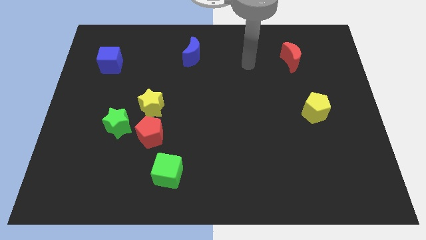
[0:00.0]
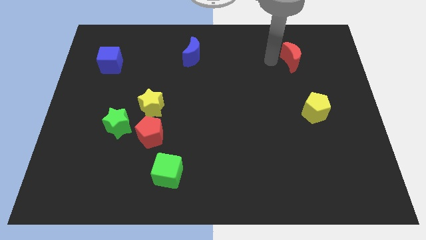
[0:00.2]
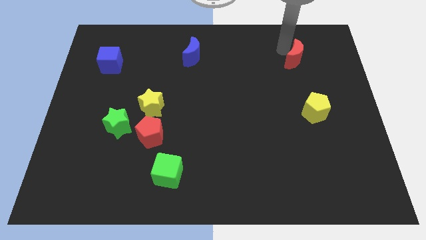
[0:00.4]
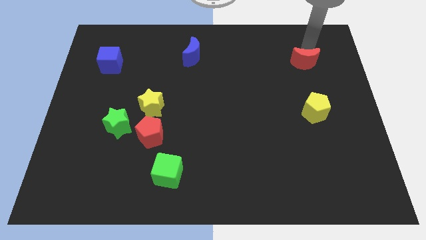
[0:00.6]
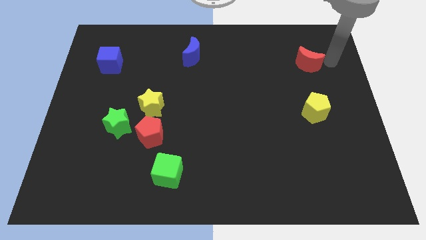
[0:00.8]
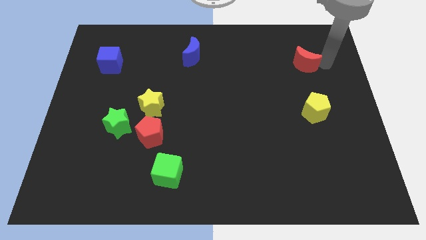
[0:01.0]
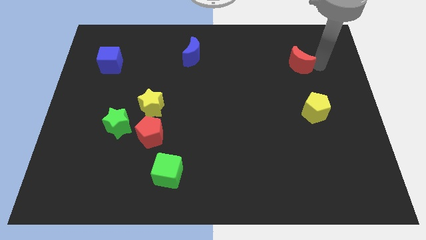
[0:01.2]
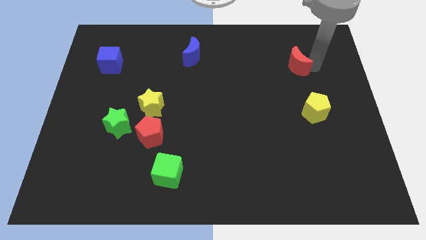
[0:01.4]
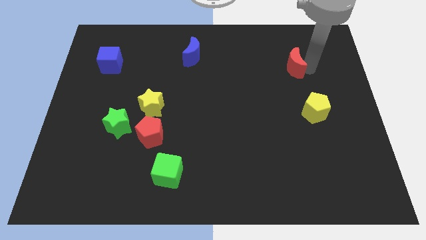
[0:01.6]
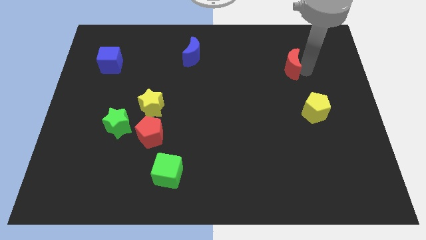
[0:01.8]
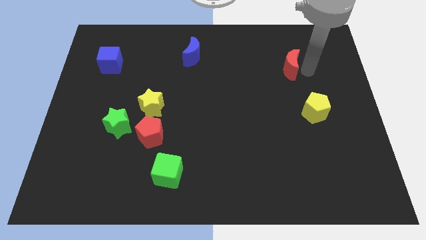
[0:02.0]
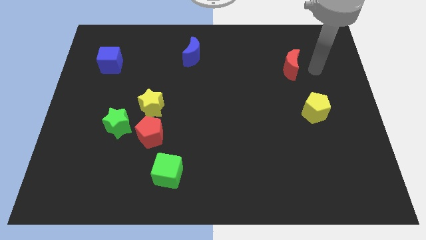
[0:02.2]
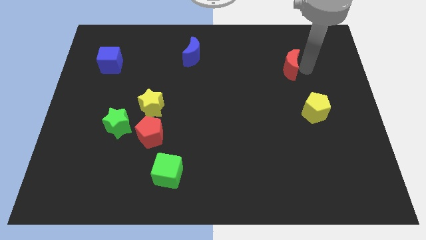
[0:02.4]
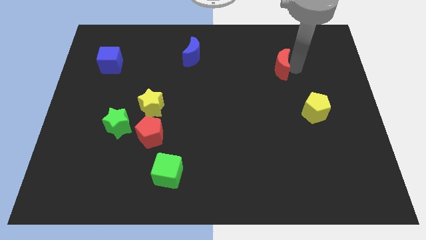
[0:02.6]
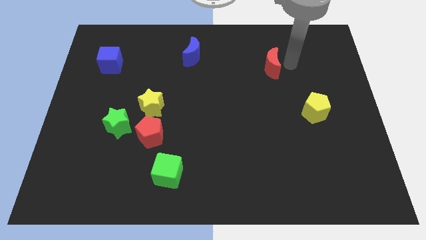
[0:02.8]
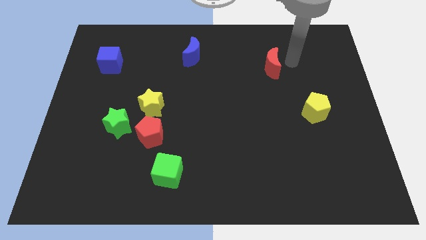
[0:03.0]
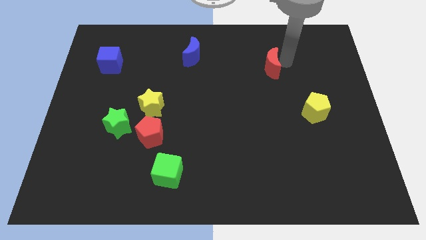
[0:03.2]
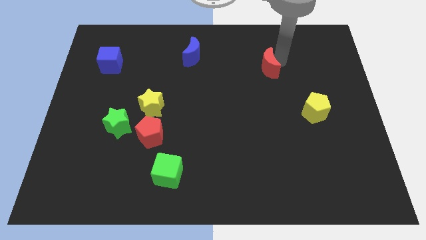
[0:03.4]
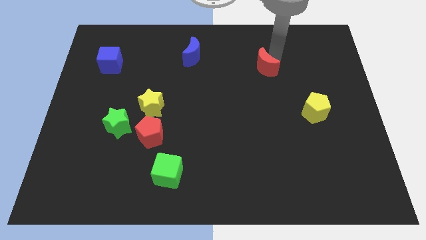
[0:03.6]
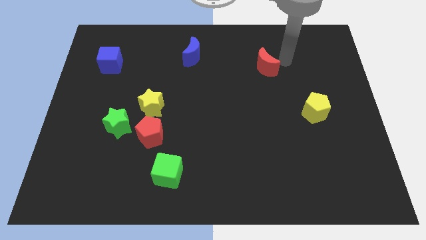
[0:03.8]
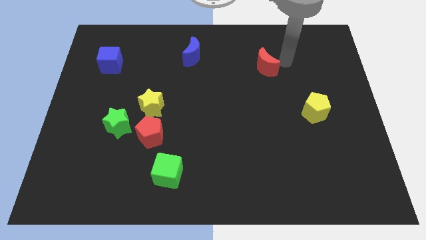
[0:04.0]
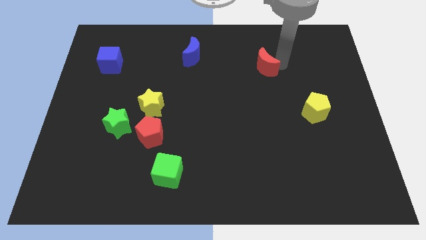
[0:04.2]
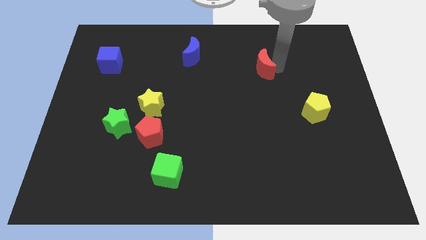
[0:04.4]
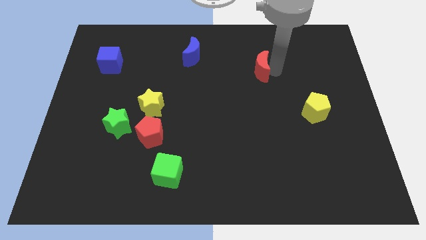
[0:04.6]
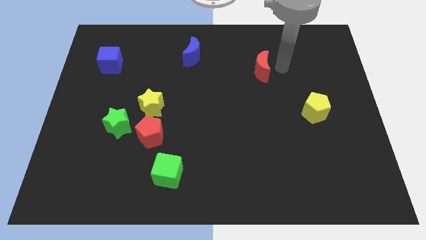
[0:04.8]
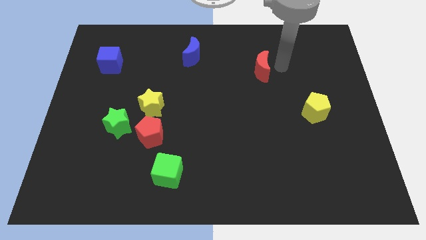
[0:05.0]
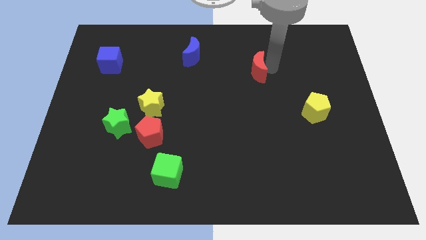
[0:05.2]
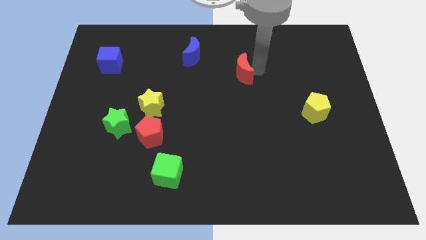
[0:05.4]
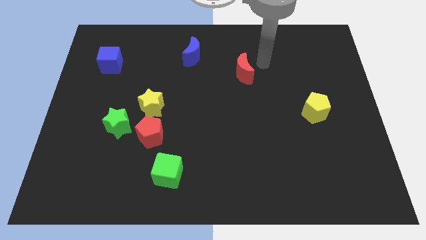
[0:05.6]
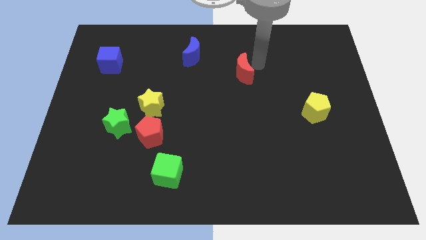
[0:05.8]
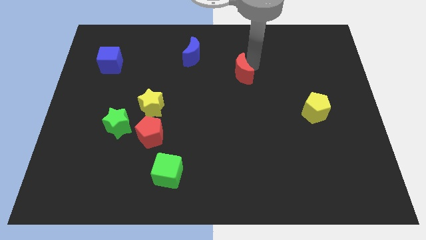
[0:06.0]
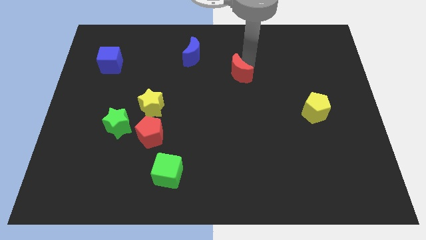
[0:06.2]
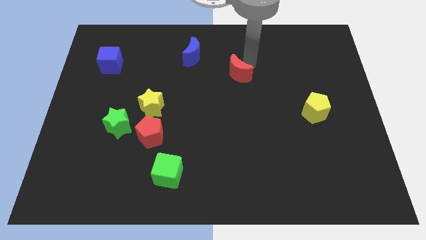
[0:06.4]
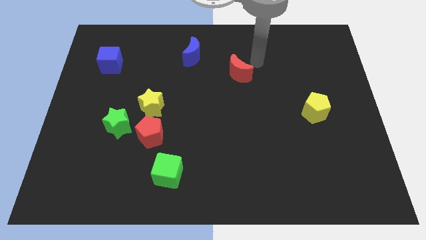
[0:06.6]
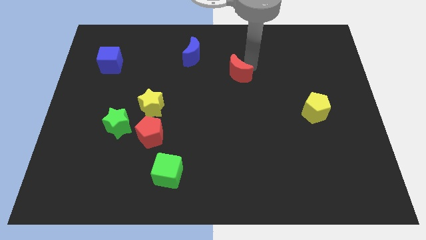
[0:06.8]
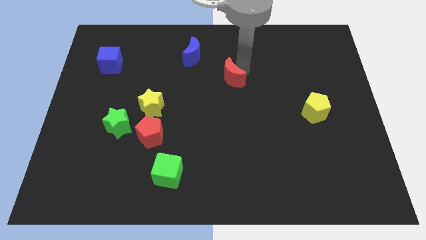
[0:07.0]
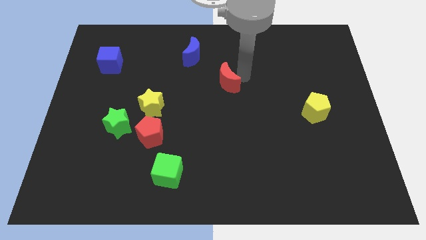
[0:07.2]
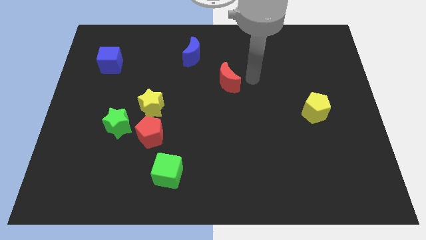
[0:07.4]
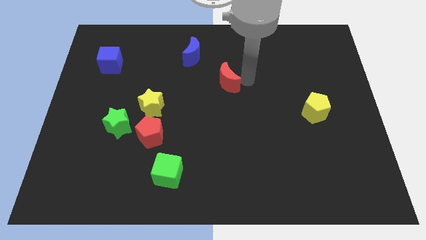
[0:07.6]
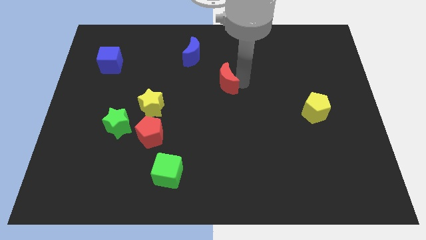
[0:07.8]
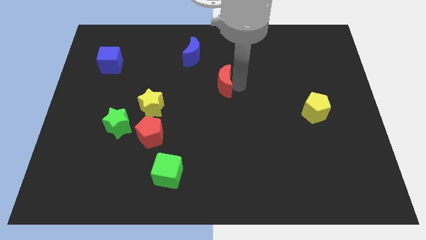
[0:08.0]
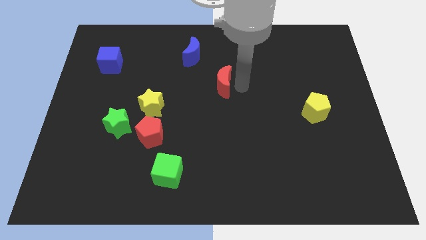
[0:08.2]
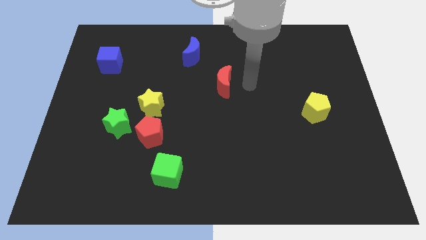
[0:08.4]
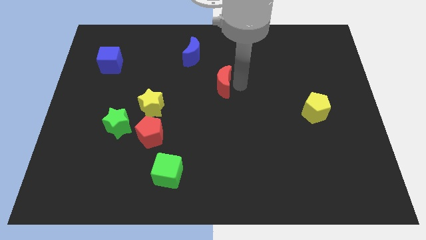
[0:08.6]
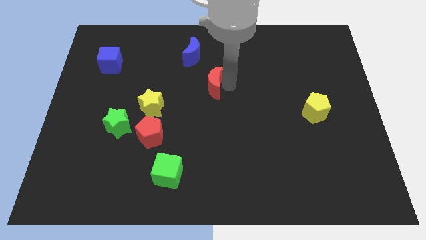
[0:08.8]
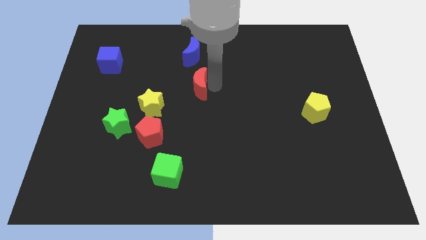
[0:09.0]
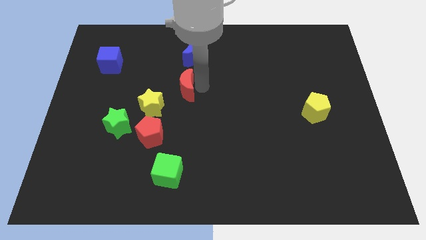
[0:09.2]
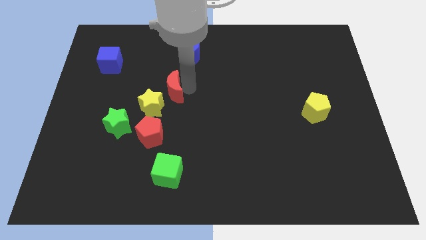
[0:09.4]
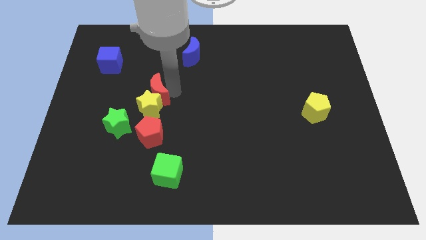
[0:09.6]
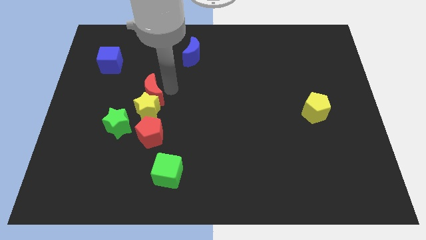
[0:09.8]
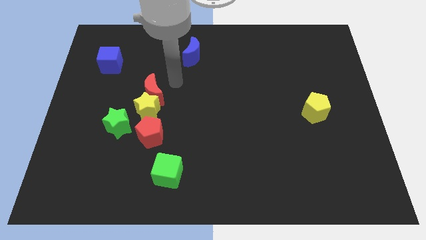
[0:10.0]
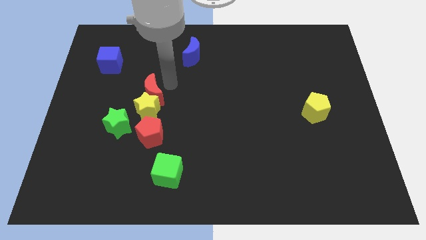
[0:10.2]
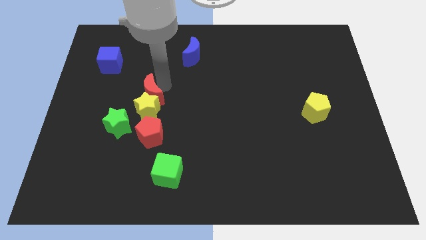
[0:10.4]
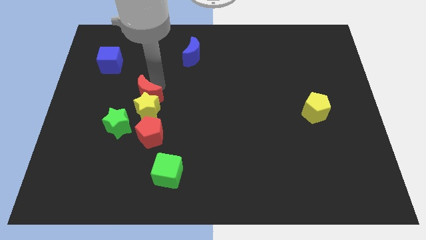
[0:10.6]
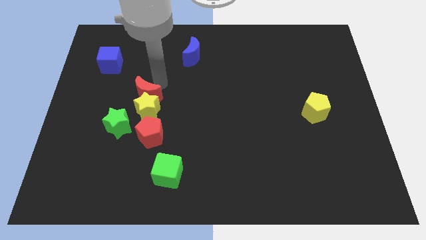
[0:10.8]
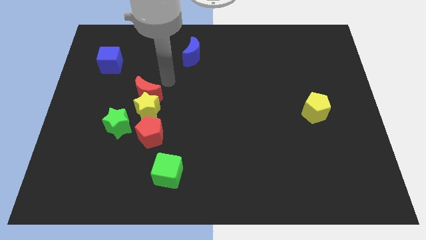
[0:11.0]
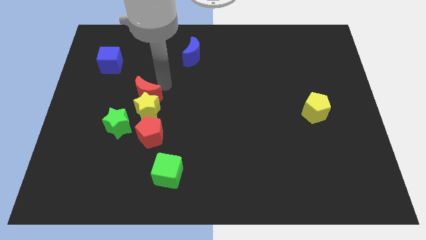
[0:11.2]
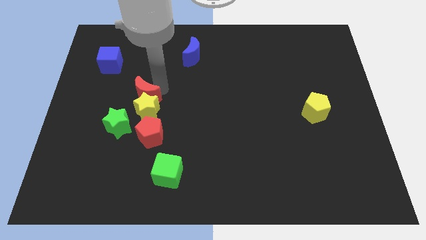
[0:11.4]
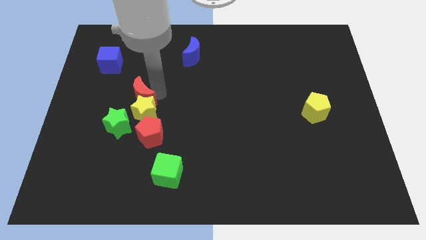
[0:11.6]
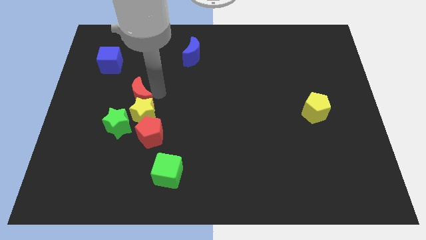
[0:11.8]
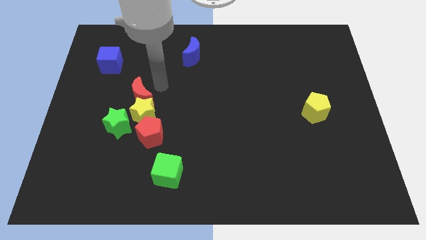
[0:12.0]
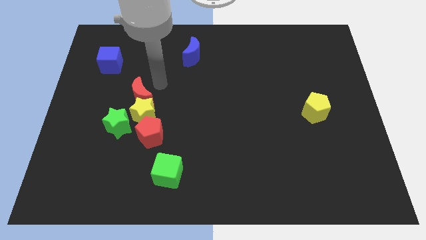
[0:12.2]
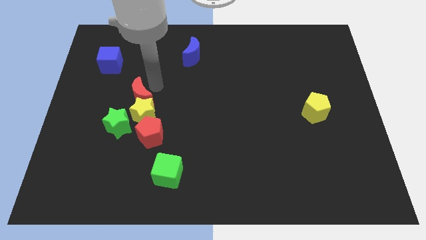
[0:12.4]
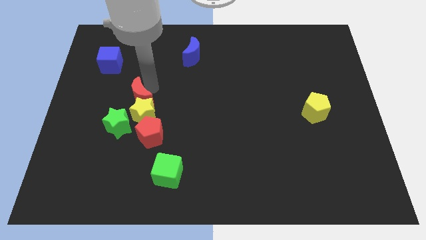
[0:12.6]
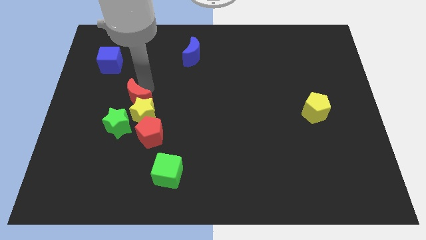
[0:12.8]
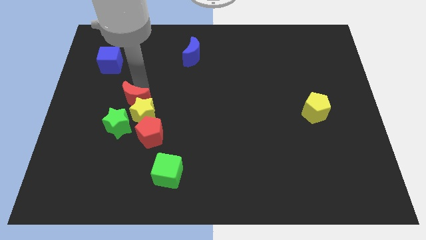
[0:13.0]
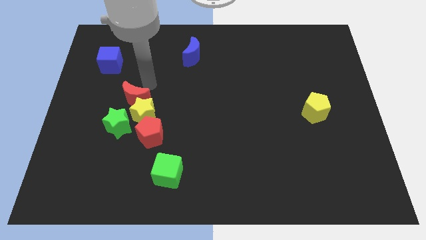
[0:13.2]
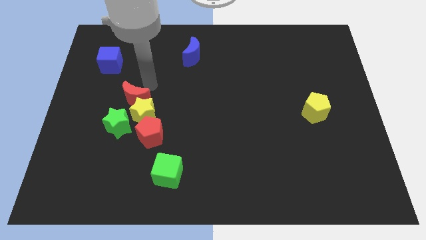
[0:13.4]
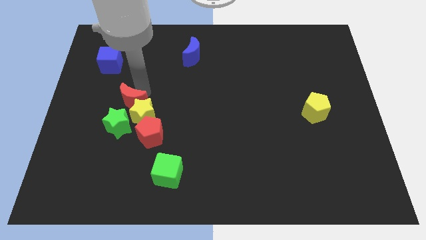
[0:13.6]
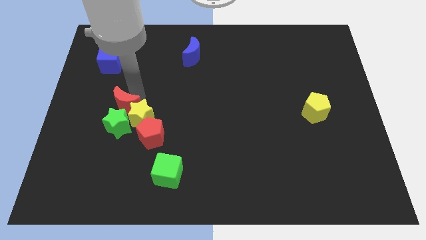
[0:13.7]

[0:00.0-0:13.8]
push the red moon to the green star
